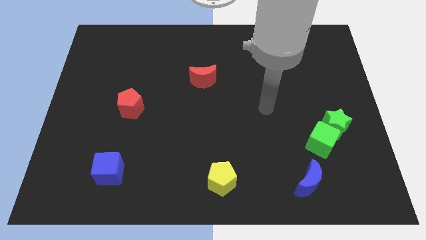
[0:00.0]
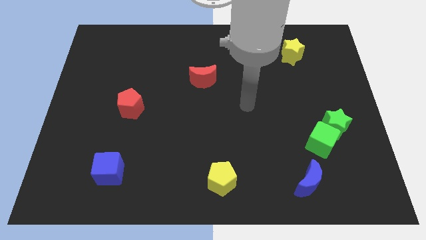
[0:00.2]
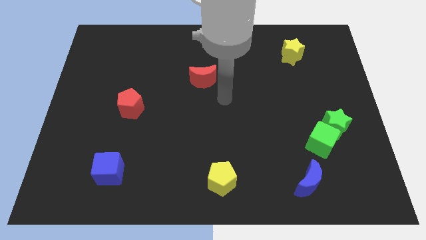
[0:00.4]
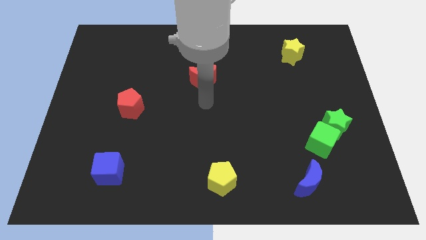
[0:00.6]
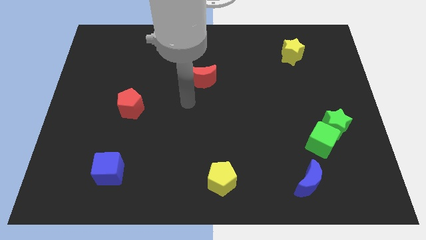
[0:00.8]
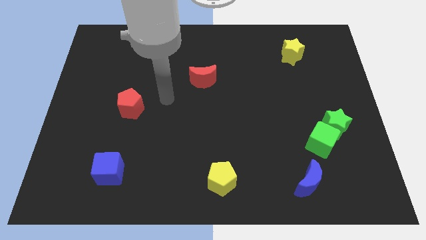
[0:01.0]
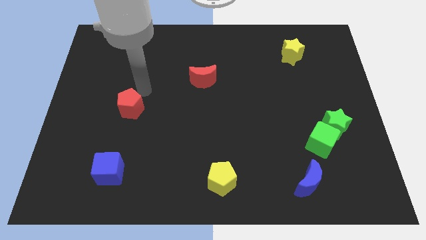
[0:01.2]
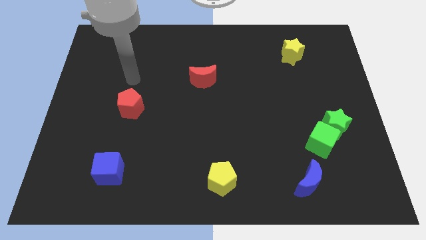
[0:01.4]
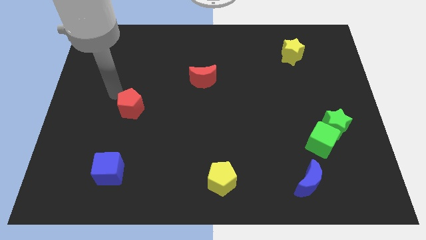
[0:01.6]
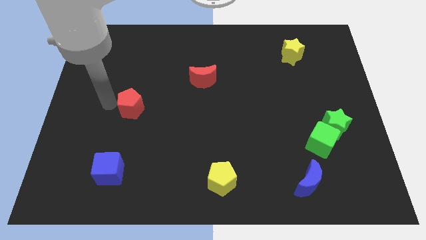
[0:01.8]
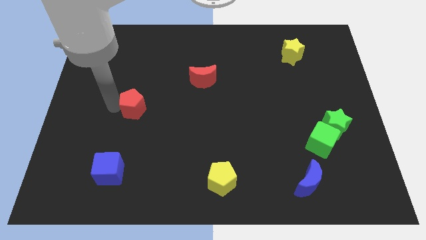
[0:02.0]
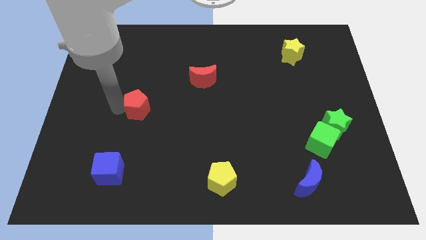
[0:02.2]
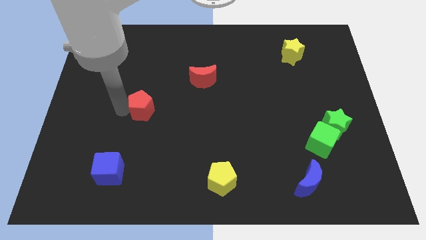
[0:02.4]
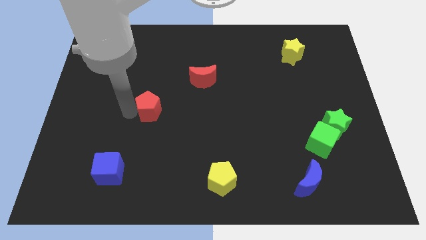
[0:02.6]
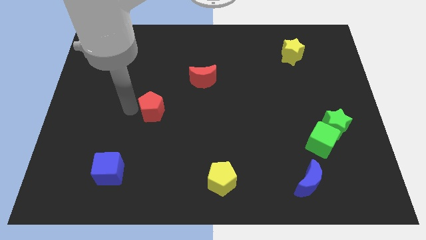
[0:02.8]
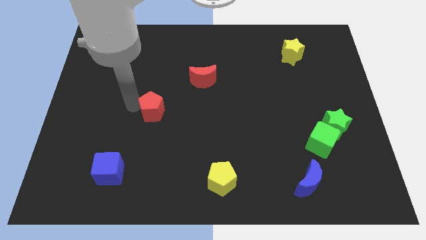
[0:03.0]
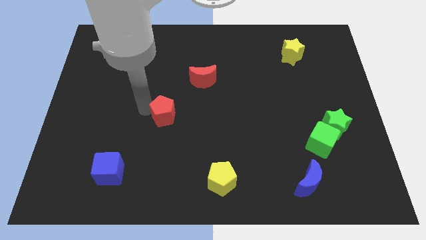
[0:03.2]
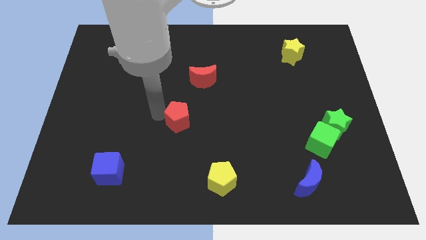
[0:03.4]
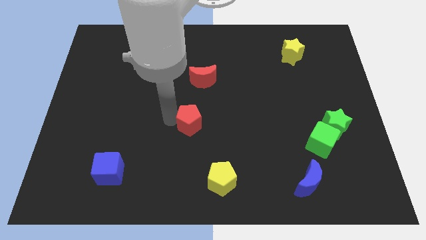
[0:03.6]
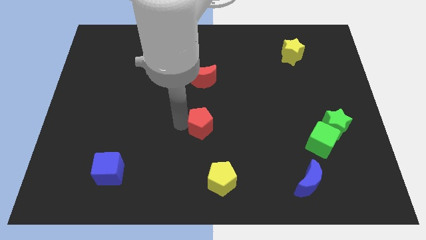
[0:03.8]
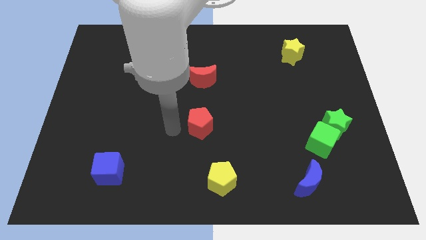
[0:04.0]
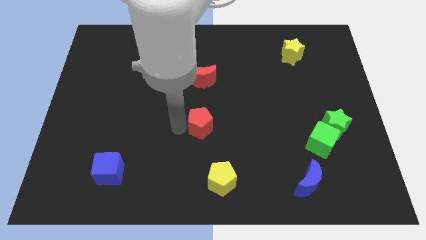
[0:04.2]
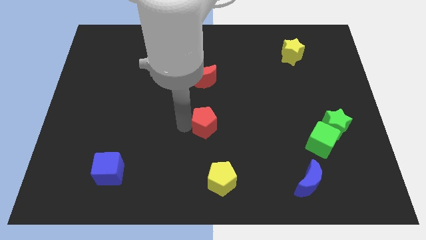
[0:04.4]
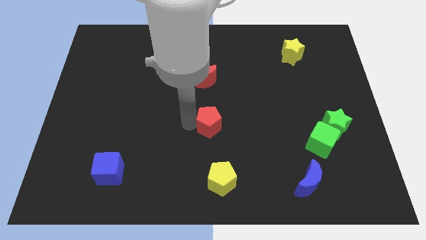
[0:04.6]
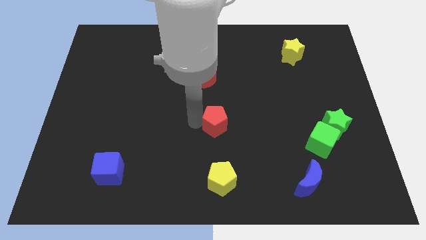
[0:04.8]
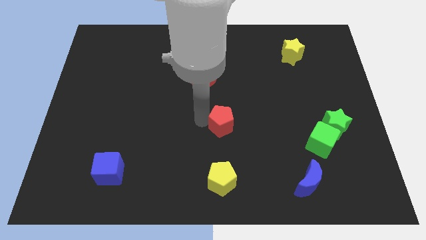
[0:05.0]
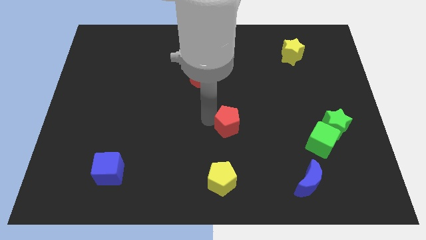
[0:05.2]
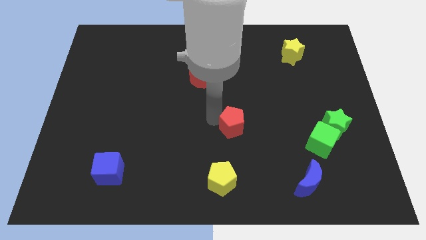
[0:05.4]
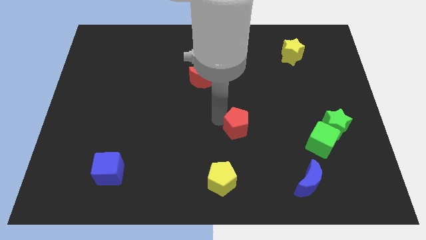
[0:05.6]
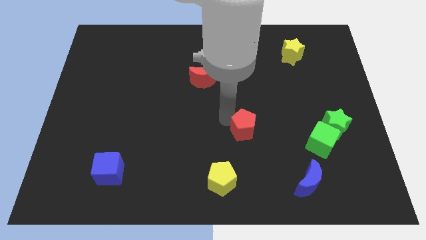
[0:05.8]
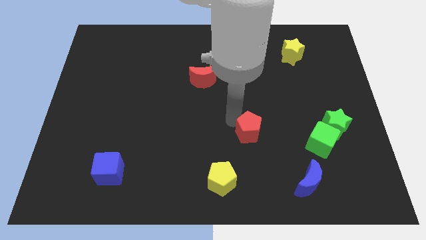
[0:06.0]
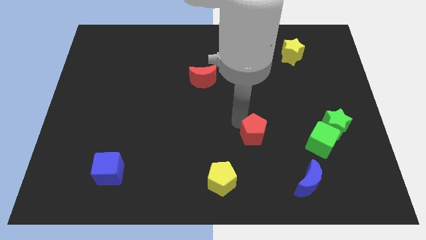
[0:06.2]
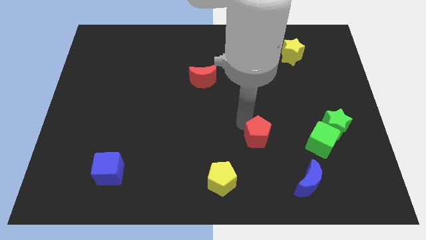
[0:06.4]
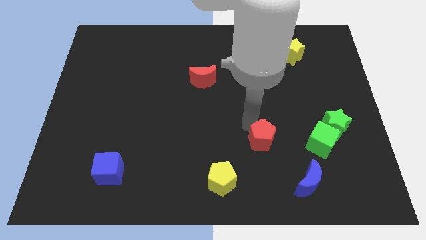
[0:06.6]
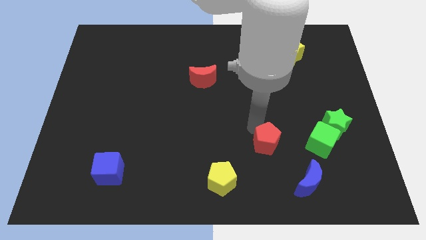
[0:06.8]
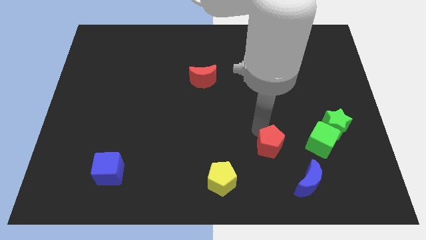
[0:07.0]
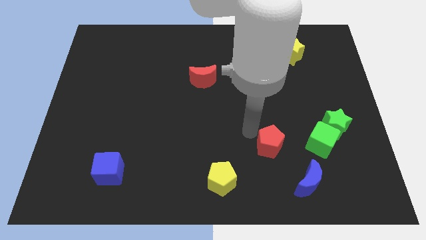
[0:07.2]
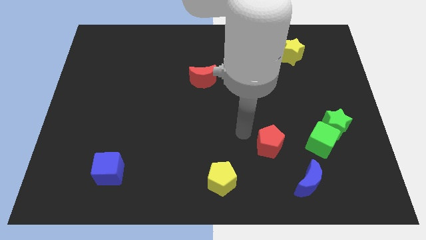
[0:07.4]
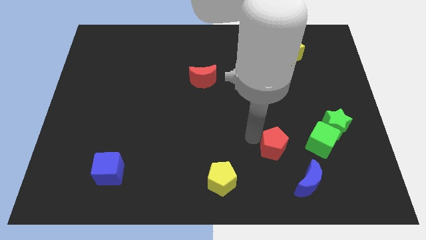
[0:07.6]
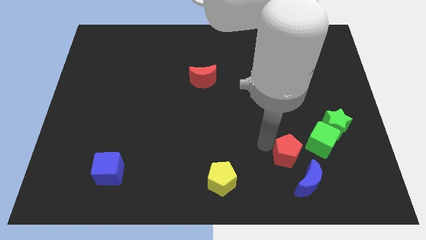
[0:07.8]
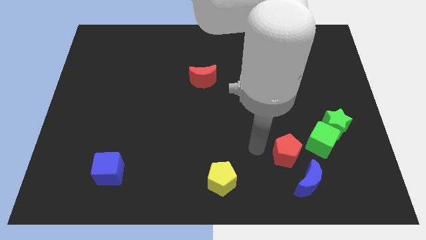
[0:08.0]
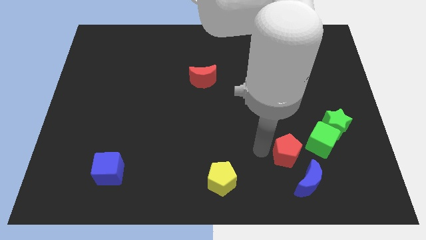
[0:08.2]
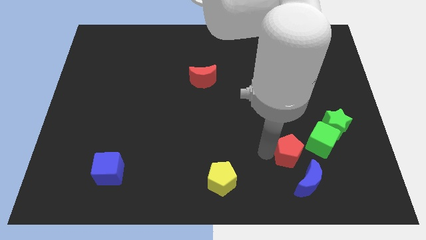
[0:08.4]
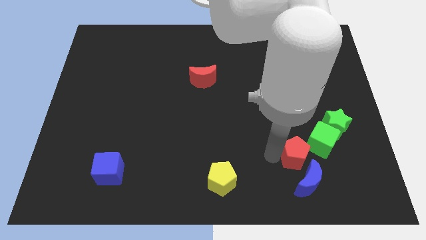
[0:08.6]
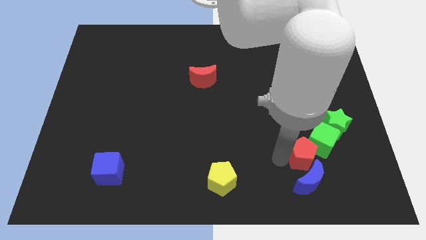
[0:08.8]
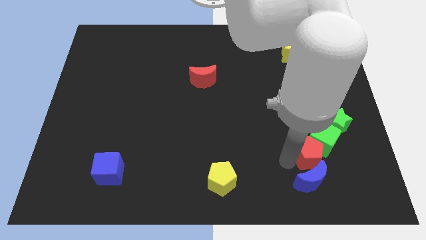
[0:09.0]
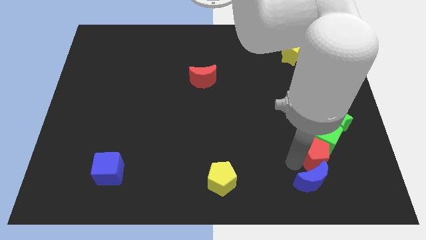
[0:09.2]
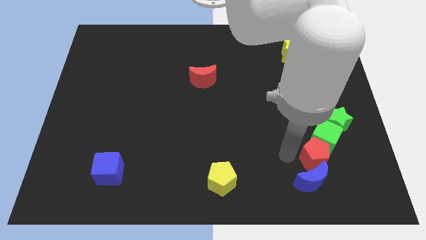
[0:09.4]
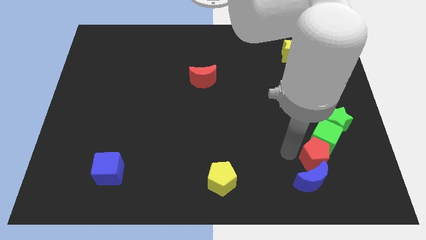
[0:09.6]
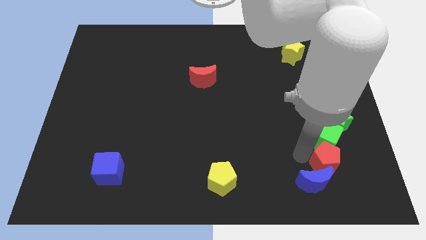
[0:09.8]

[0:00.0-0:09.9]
move the red pentagon diagonally down and to the right of the green cube

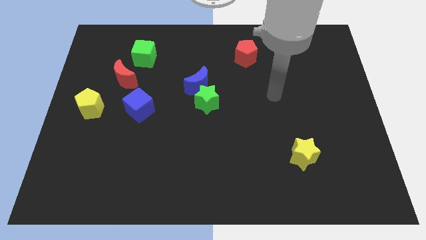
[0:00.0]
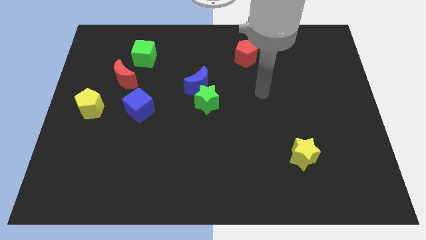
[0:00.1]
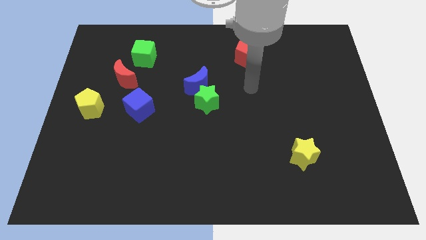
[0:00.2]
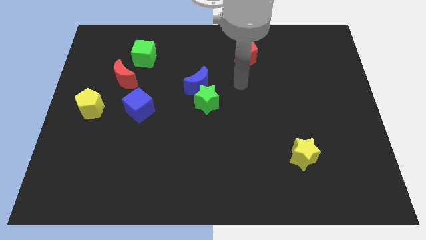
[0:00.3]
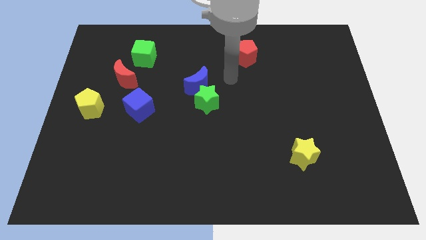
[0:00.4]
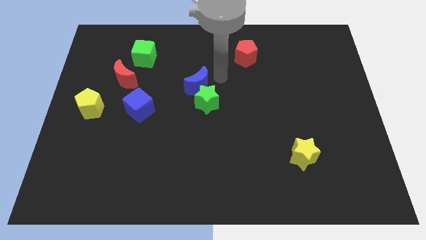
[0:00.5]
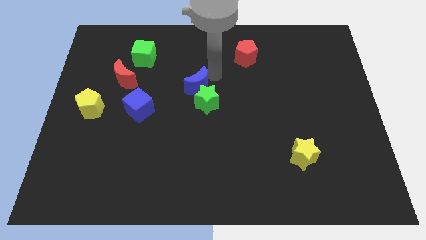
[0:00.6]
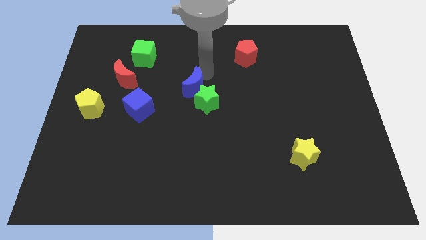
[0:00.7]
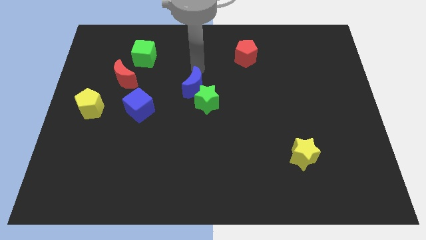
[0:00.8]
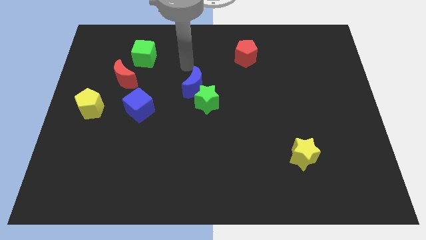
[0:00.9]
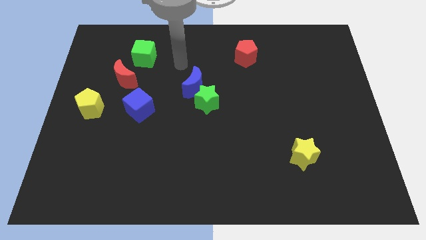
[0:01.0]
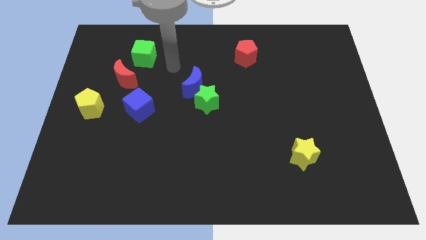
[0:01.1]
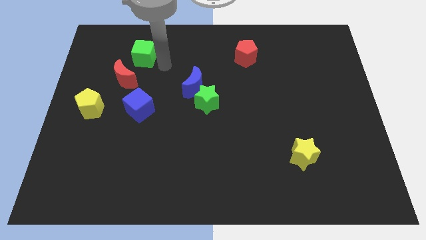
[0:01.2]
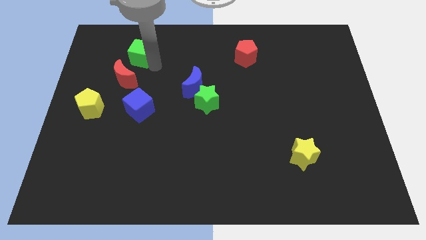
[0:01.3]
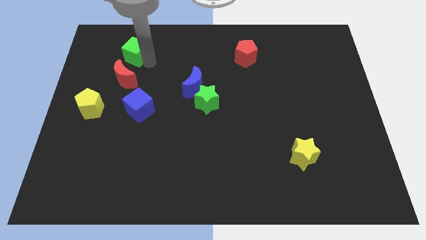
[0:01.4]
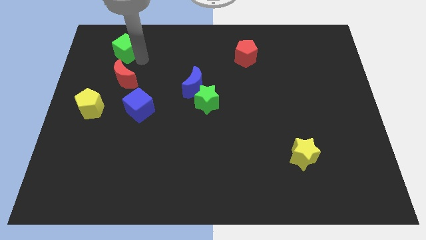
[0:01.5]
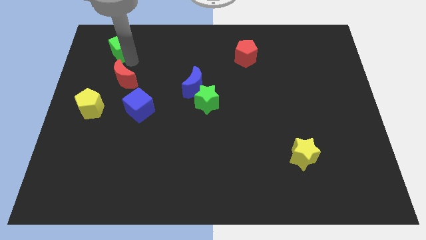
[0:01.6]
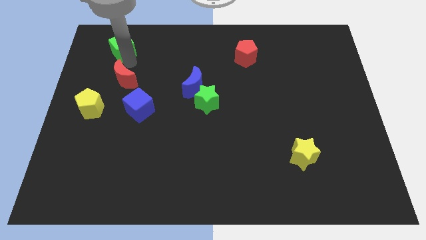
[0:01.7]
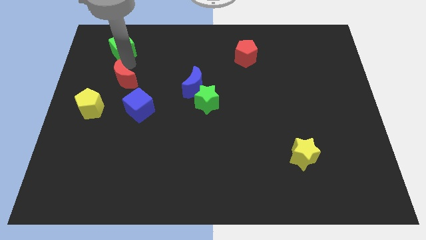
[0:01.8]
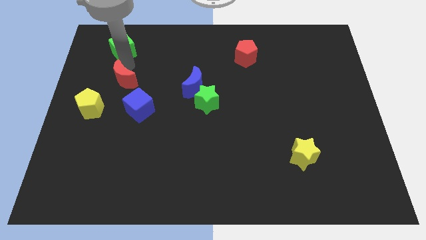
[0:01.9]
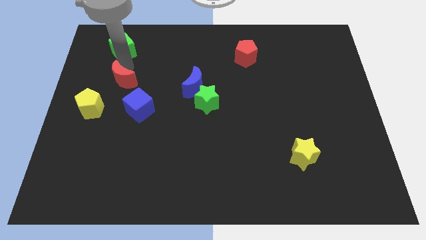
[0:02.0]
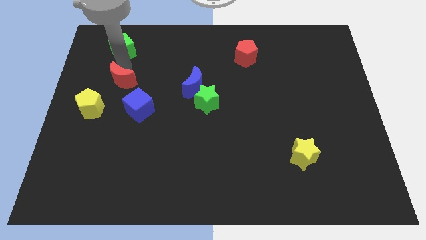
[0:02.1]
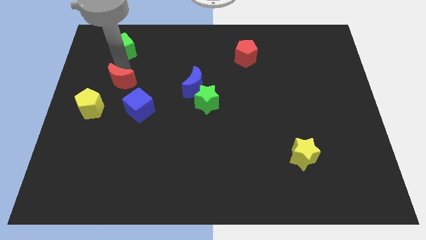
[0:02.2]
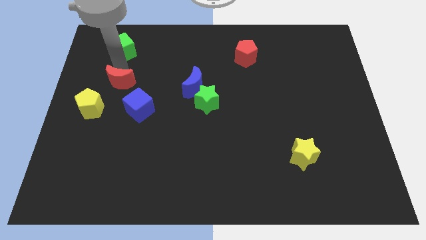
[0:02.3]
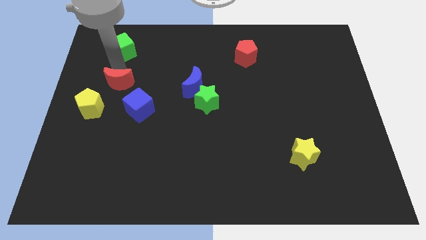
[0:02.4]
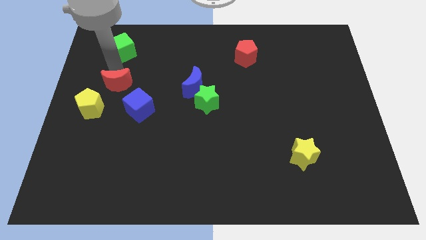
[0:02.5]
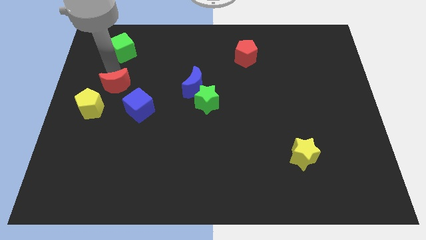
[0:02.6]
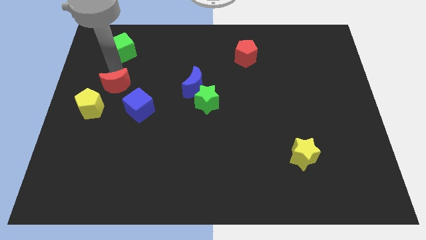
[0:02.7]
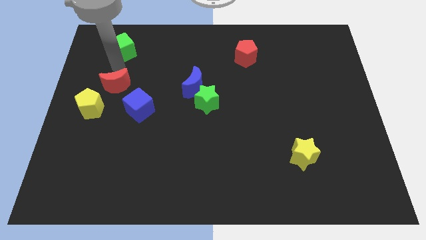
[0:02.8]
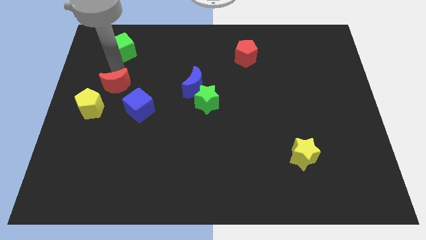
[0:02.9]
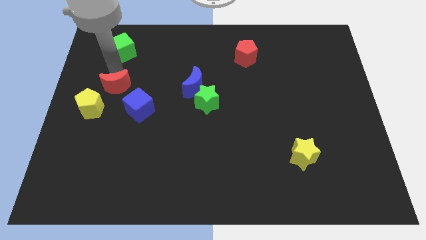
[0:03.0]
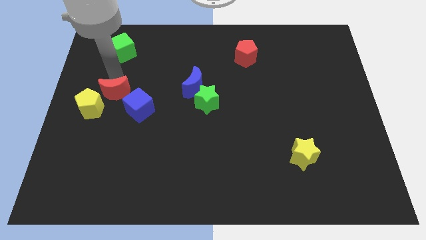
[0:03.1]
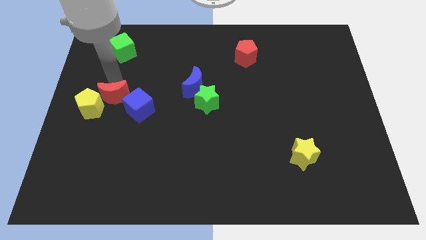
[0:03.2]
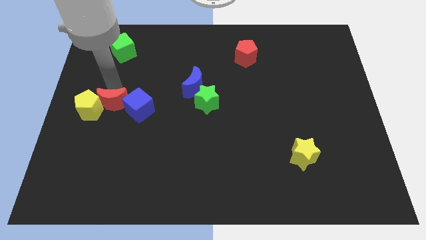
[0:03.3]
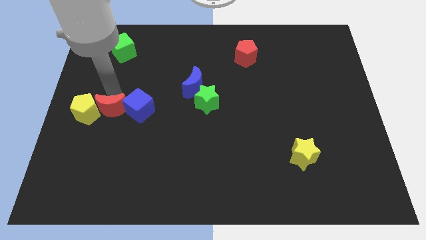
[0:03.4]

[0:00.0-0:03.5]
push the red moon diagonally down and to the right of the yellow pentagon
